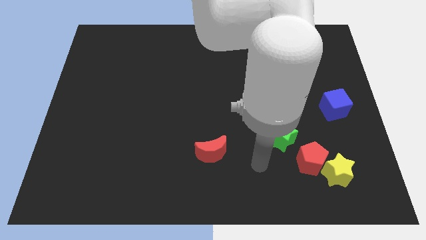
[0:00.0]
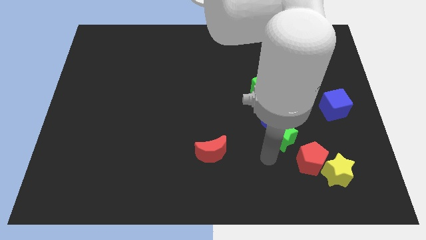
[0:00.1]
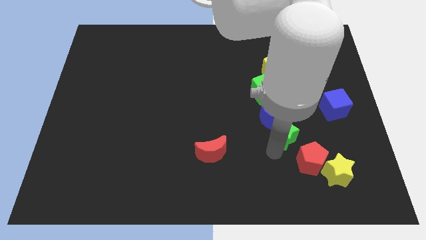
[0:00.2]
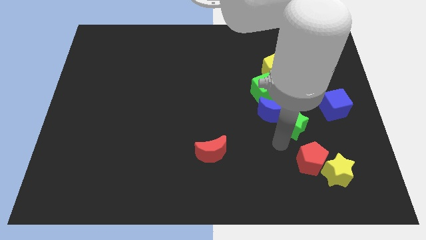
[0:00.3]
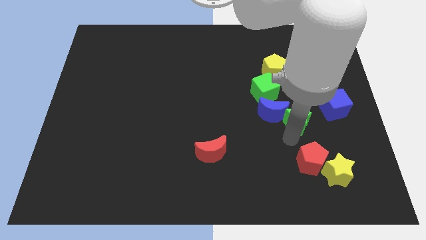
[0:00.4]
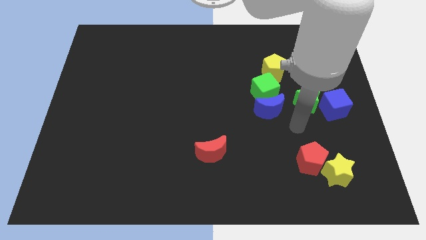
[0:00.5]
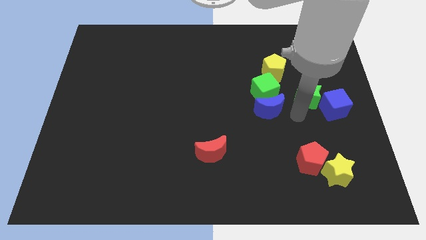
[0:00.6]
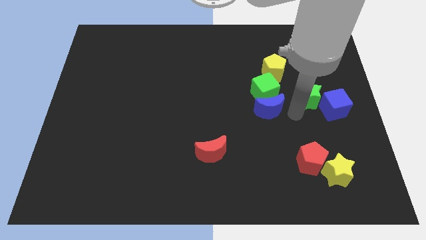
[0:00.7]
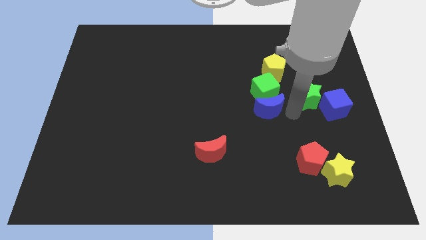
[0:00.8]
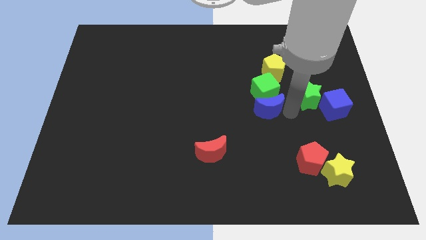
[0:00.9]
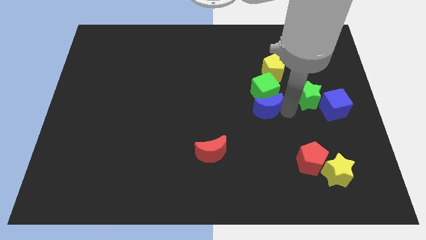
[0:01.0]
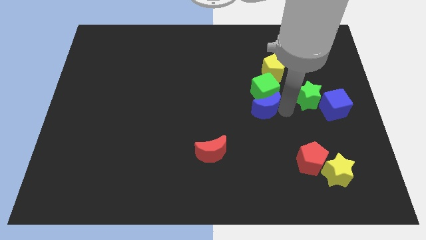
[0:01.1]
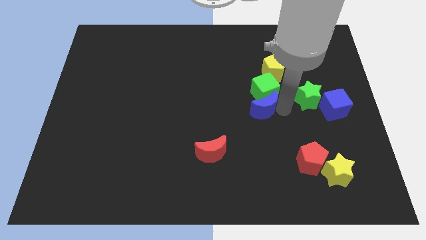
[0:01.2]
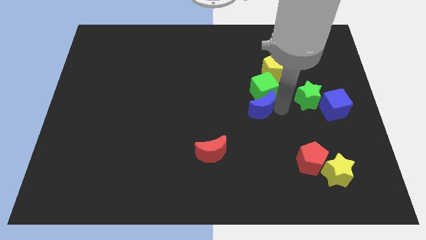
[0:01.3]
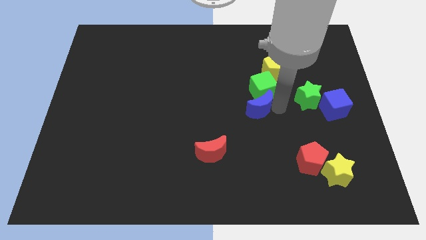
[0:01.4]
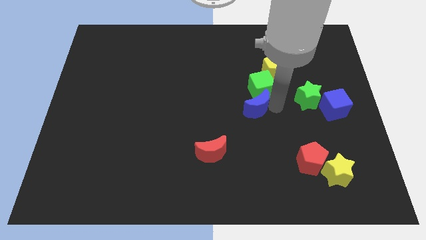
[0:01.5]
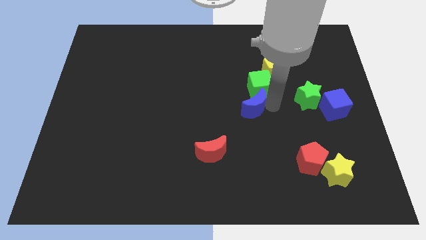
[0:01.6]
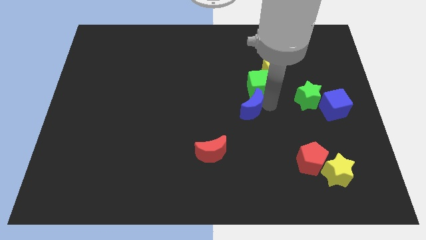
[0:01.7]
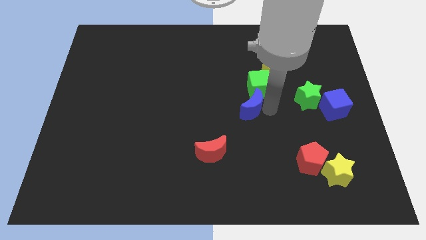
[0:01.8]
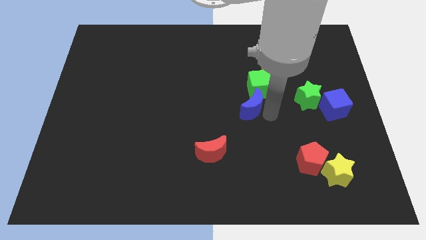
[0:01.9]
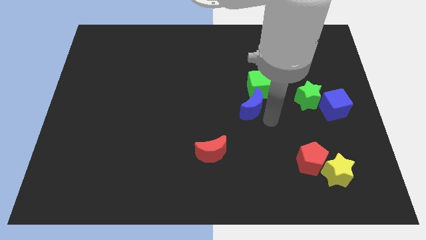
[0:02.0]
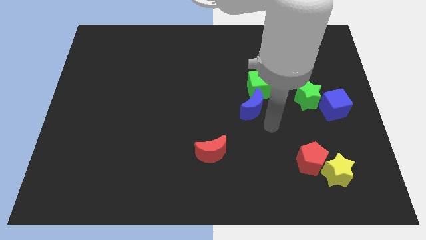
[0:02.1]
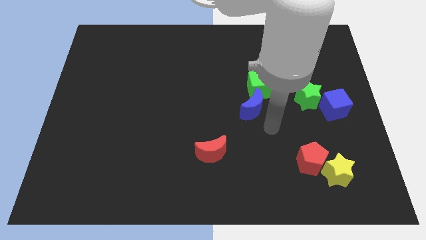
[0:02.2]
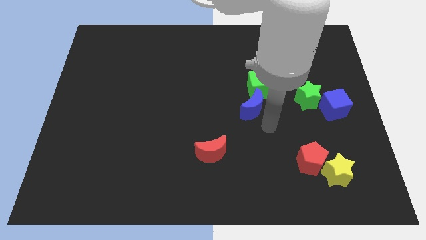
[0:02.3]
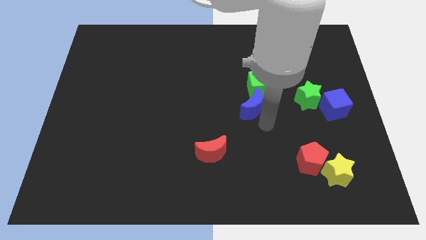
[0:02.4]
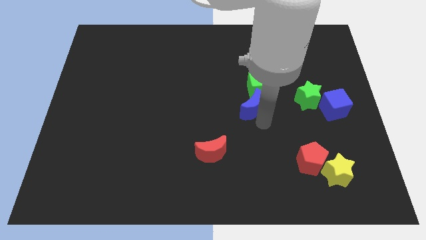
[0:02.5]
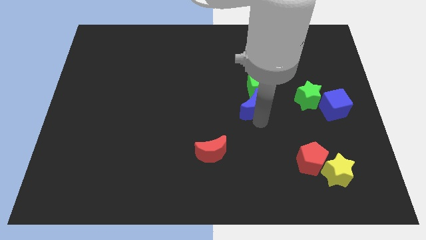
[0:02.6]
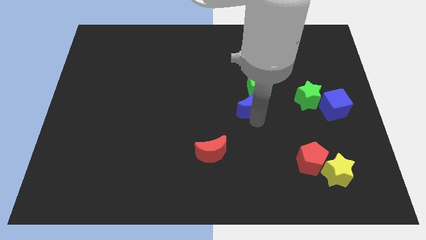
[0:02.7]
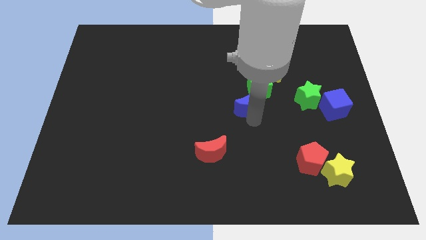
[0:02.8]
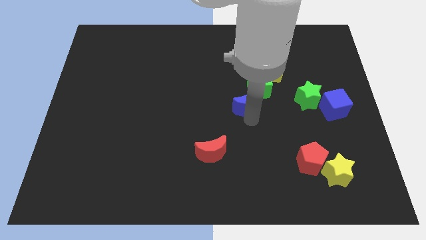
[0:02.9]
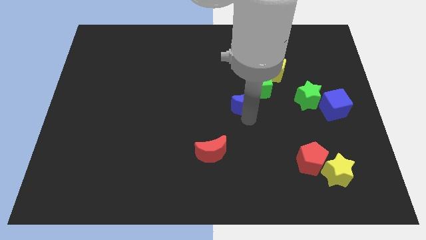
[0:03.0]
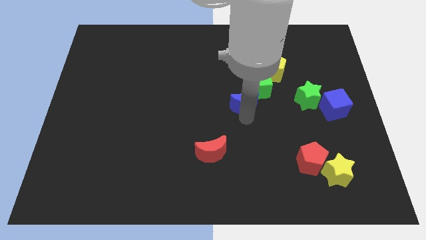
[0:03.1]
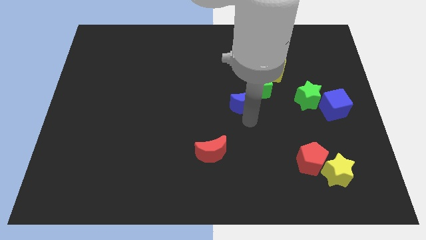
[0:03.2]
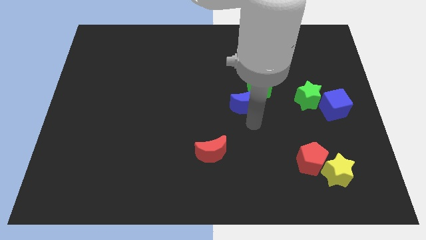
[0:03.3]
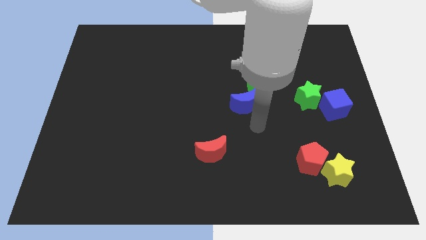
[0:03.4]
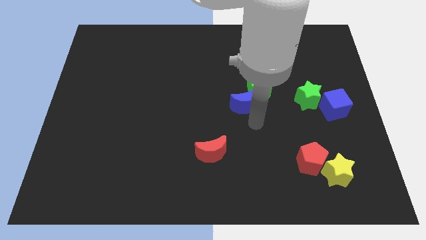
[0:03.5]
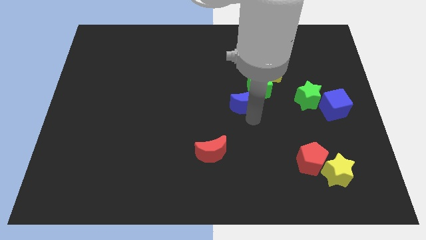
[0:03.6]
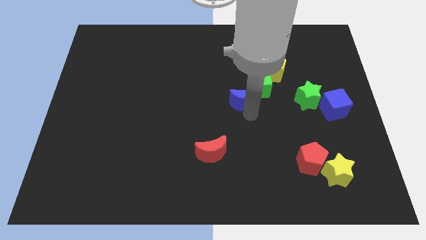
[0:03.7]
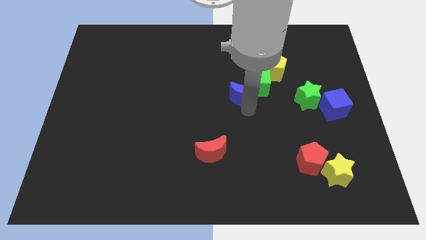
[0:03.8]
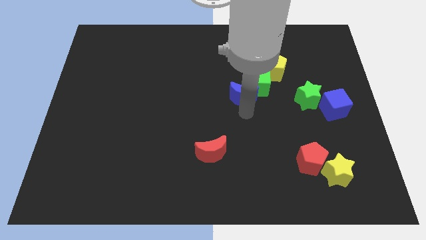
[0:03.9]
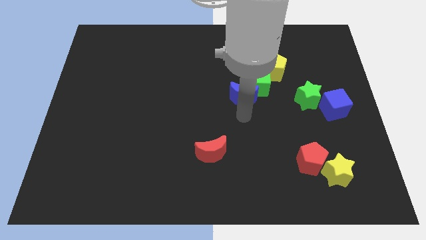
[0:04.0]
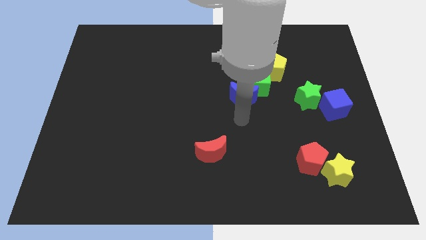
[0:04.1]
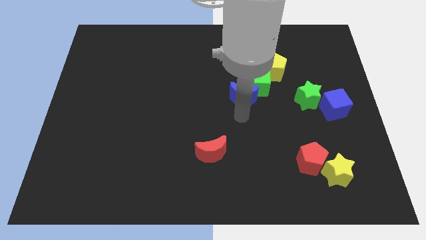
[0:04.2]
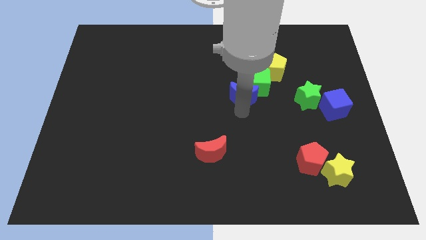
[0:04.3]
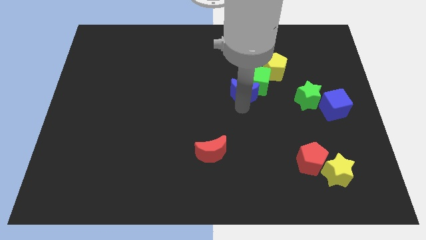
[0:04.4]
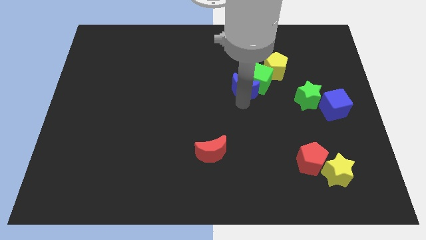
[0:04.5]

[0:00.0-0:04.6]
slightly slide the blue moon upwards

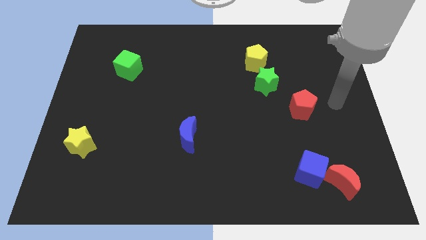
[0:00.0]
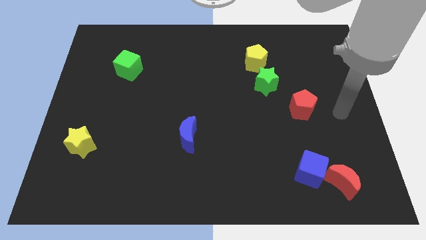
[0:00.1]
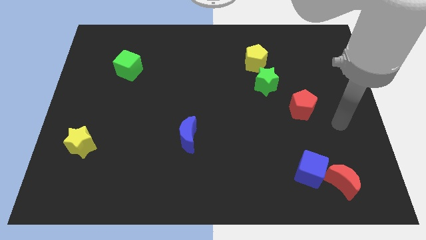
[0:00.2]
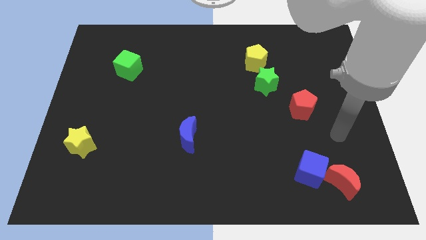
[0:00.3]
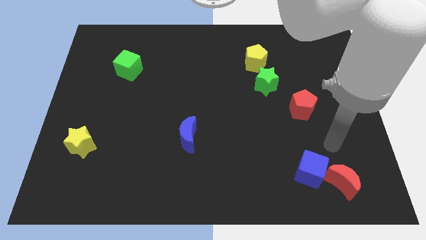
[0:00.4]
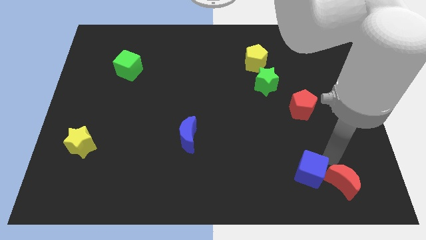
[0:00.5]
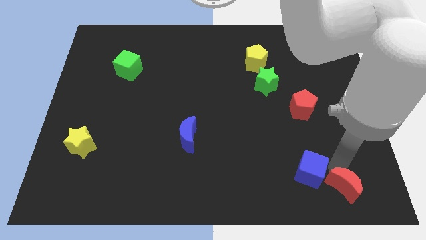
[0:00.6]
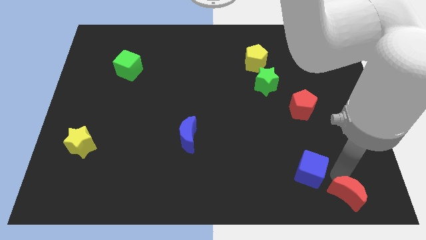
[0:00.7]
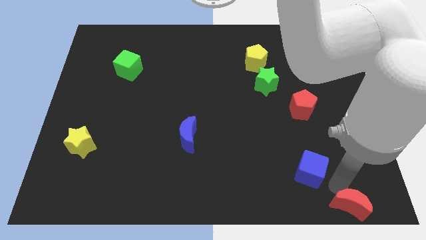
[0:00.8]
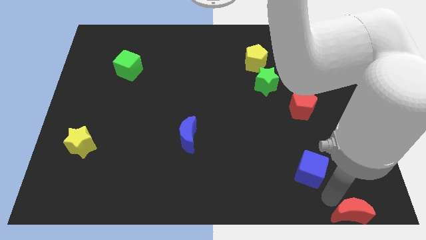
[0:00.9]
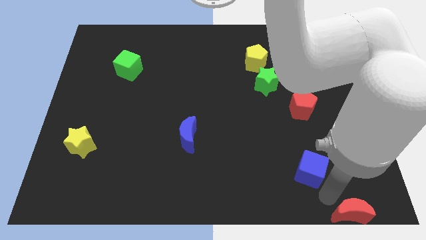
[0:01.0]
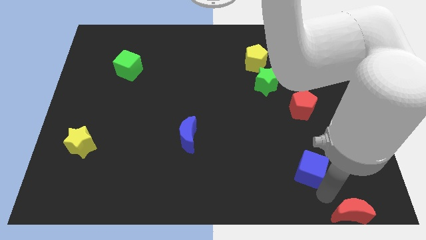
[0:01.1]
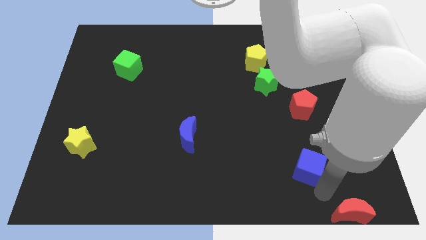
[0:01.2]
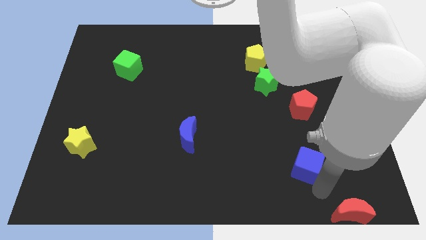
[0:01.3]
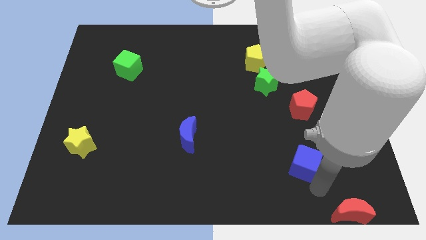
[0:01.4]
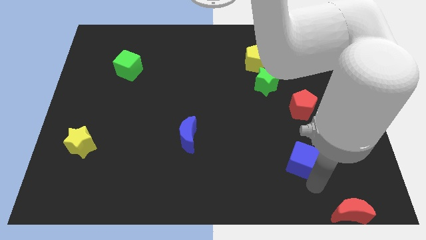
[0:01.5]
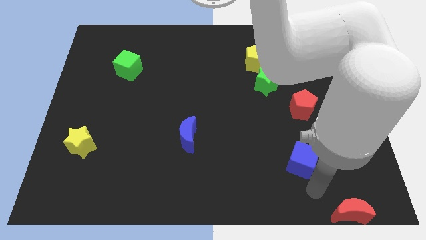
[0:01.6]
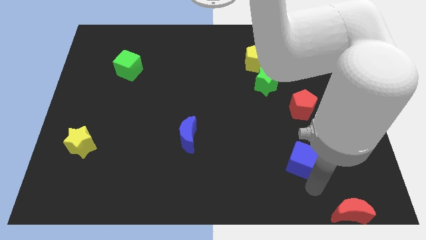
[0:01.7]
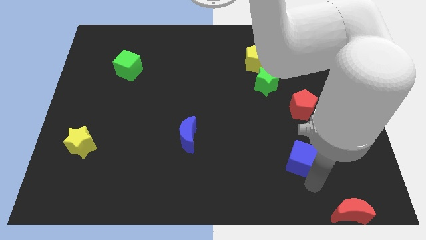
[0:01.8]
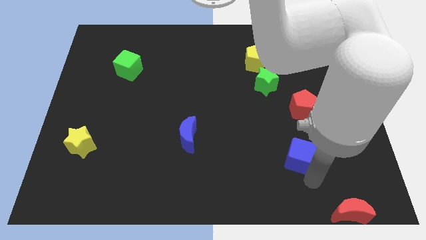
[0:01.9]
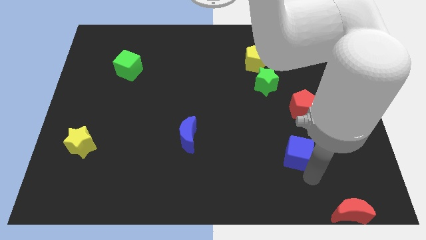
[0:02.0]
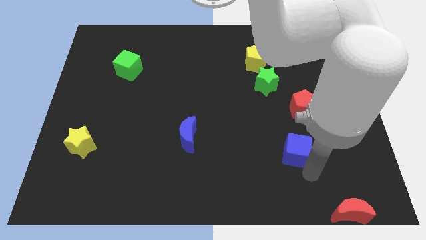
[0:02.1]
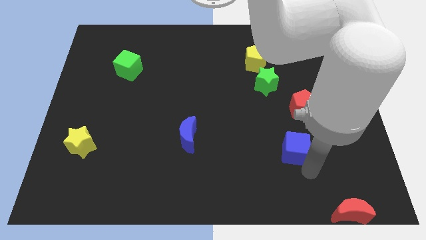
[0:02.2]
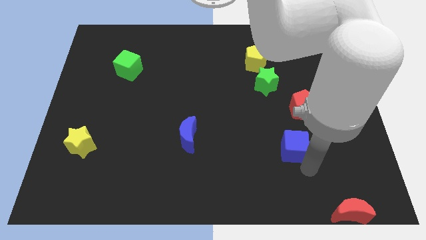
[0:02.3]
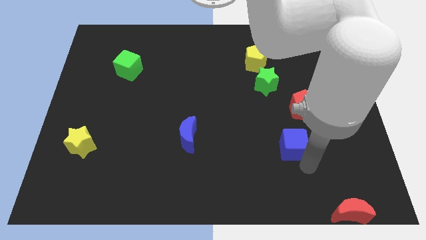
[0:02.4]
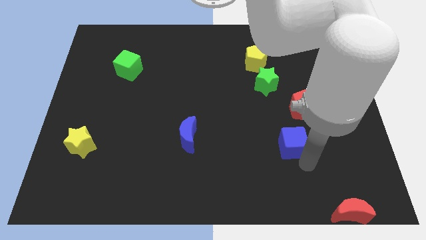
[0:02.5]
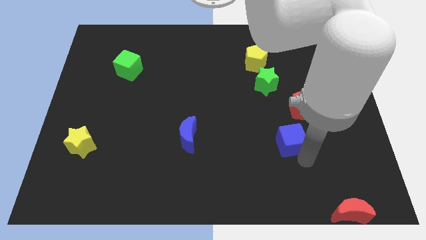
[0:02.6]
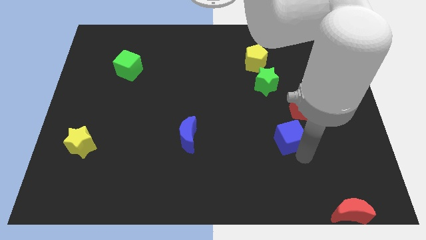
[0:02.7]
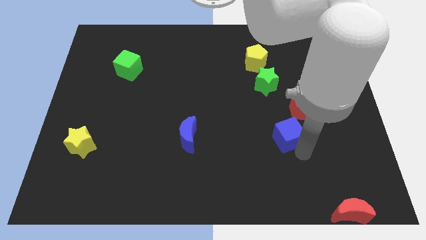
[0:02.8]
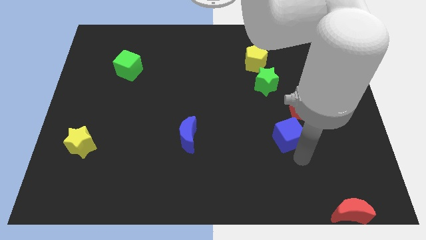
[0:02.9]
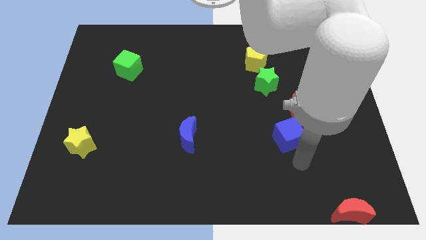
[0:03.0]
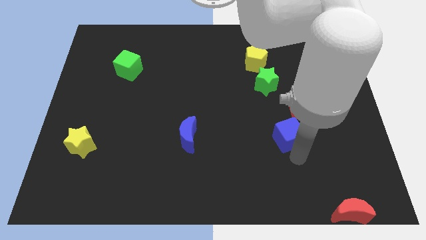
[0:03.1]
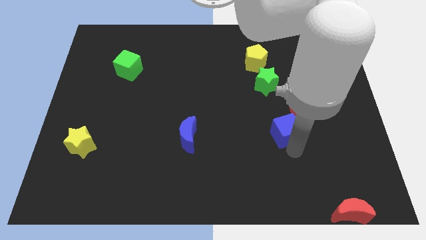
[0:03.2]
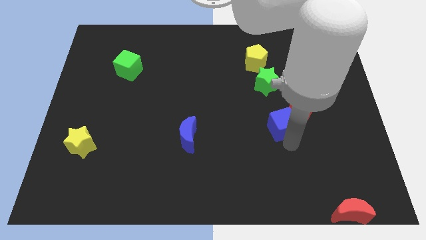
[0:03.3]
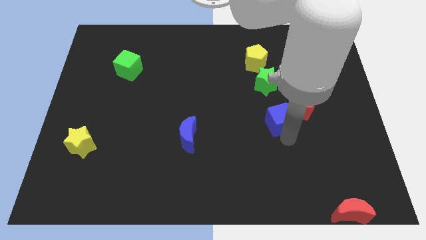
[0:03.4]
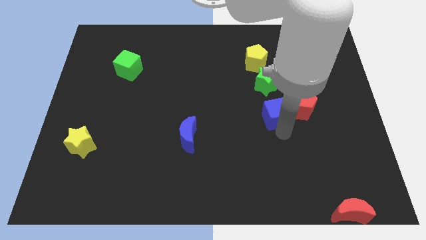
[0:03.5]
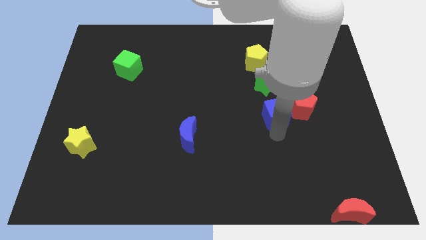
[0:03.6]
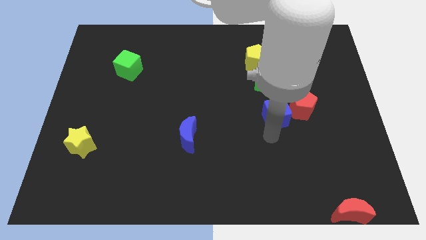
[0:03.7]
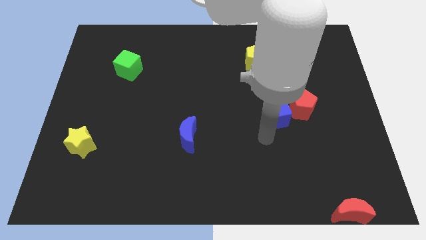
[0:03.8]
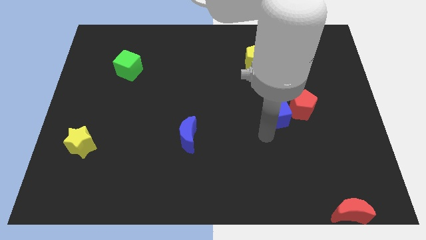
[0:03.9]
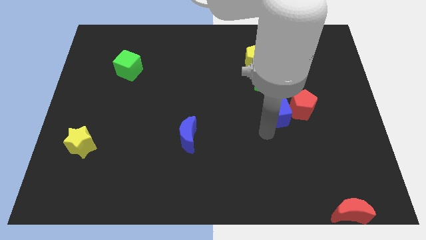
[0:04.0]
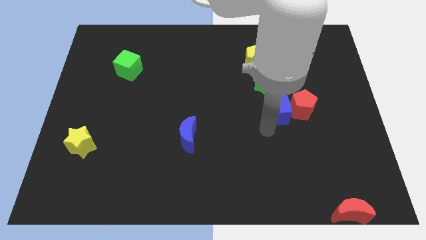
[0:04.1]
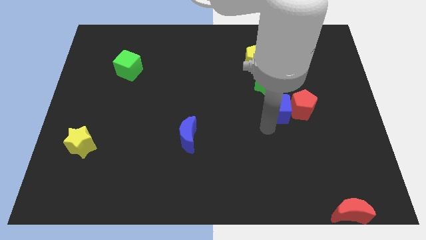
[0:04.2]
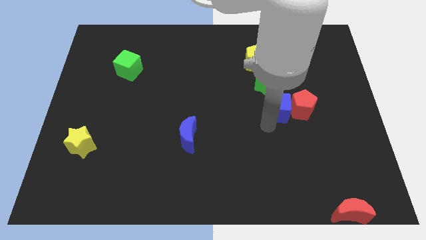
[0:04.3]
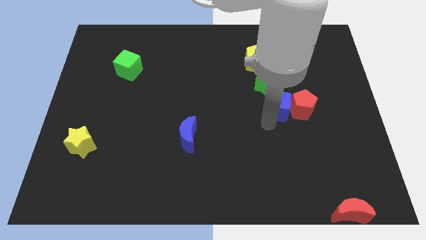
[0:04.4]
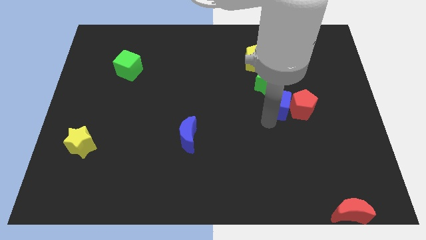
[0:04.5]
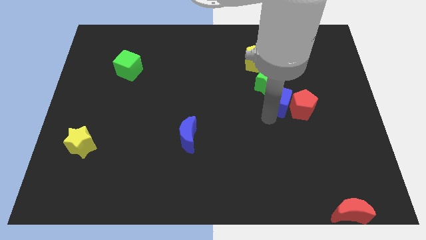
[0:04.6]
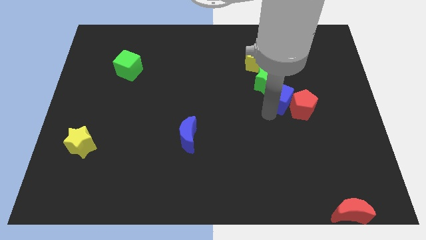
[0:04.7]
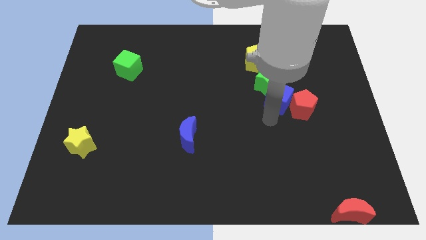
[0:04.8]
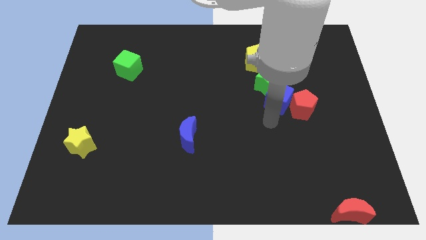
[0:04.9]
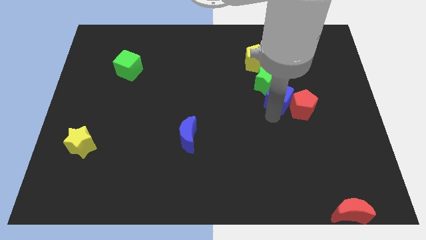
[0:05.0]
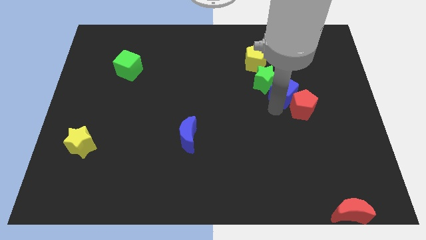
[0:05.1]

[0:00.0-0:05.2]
slide the blue cube upwards
